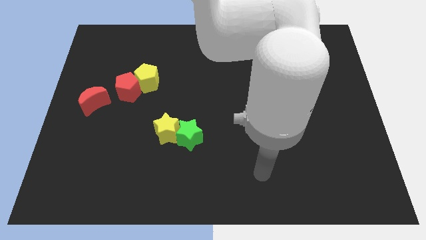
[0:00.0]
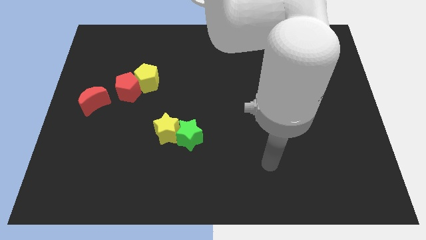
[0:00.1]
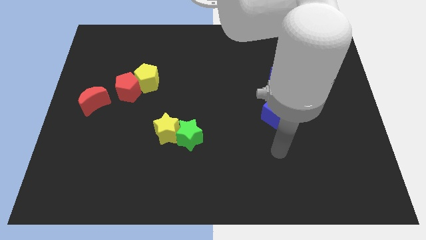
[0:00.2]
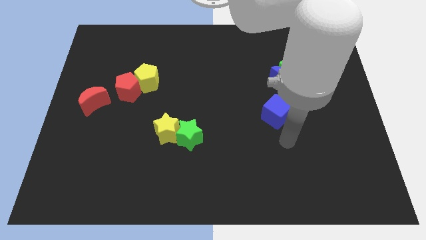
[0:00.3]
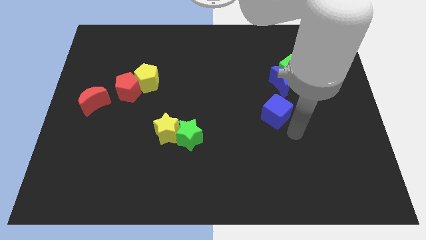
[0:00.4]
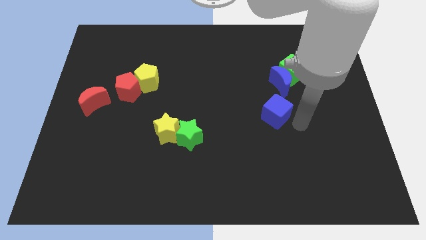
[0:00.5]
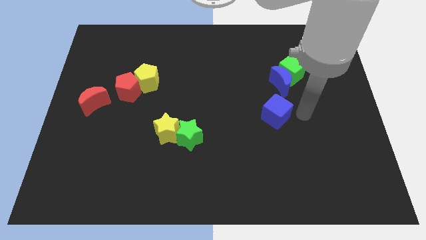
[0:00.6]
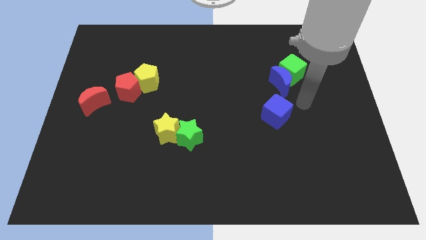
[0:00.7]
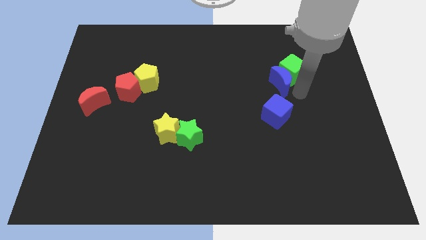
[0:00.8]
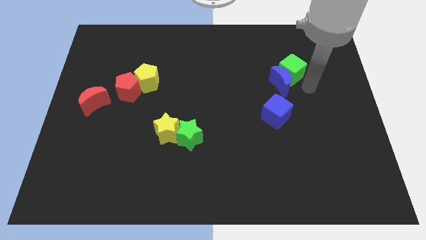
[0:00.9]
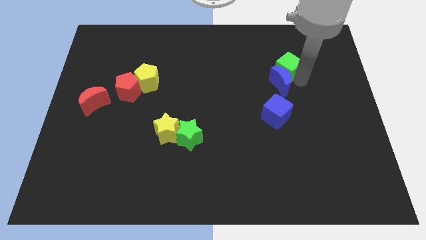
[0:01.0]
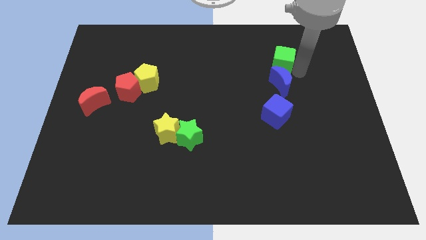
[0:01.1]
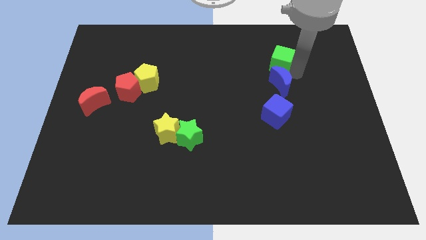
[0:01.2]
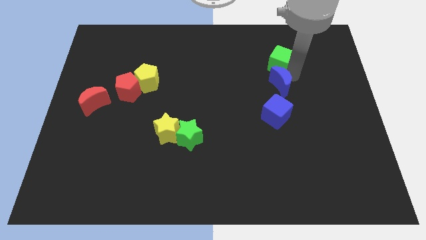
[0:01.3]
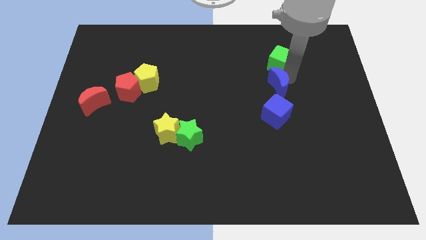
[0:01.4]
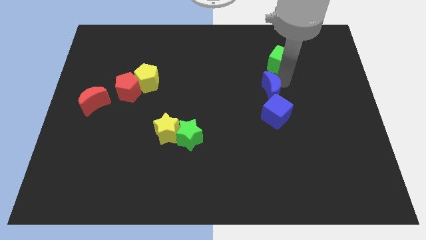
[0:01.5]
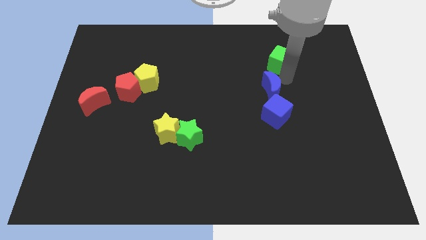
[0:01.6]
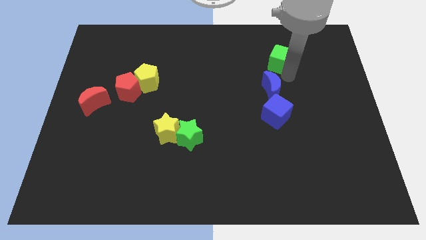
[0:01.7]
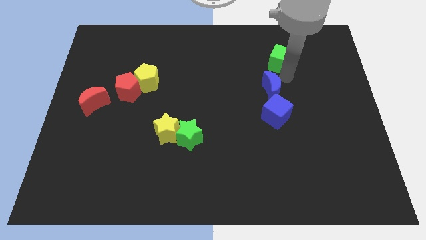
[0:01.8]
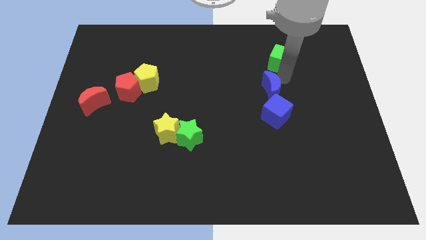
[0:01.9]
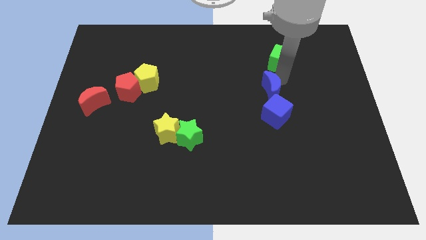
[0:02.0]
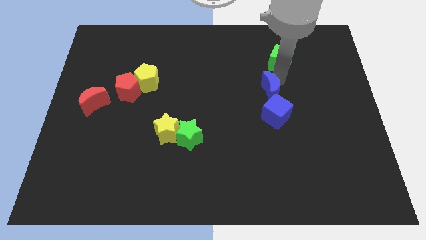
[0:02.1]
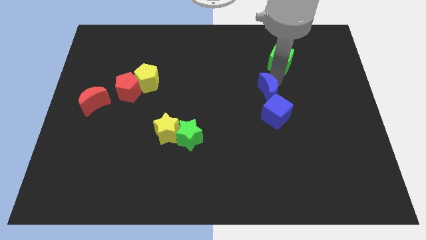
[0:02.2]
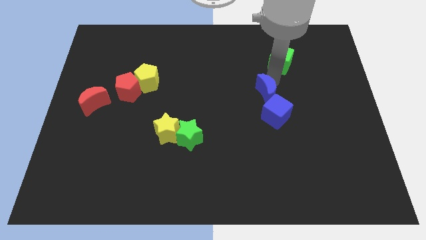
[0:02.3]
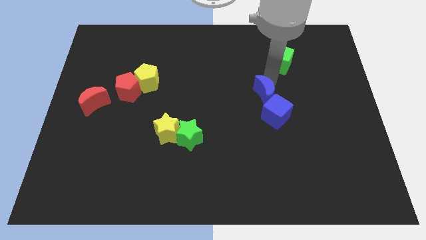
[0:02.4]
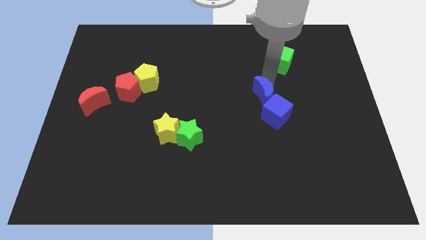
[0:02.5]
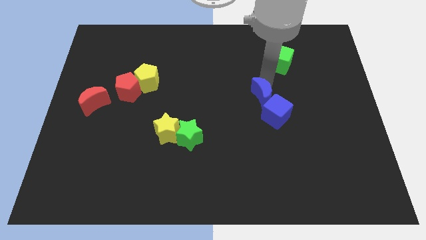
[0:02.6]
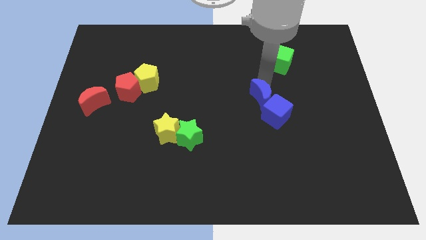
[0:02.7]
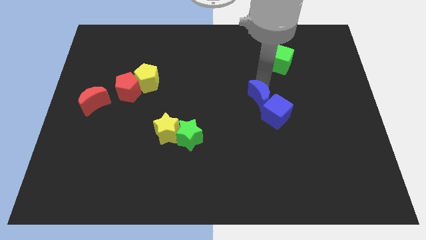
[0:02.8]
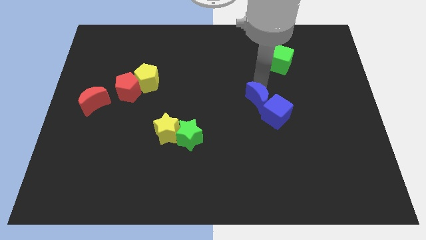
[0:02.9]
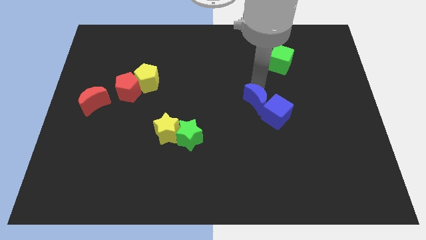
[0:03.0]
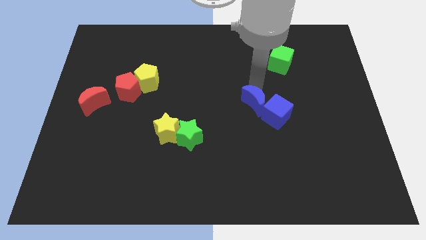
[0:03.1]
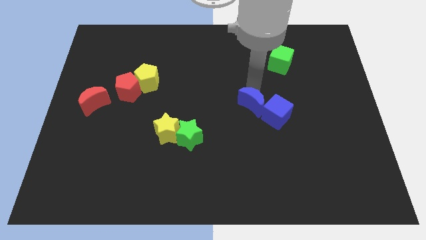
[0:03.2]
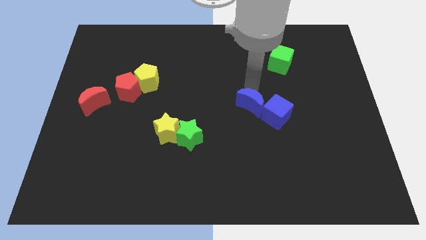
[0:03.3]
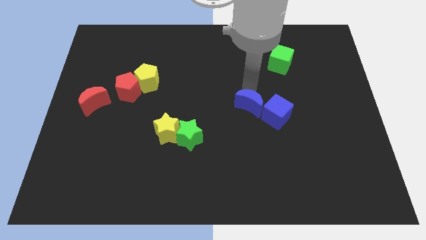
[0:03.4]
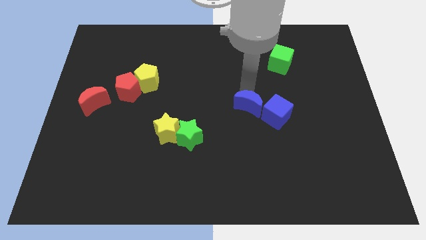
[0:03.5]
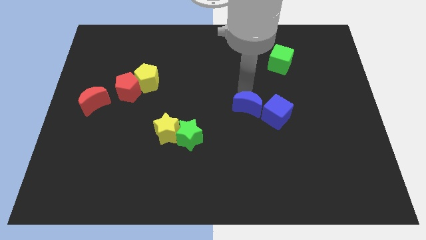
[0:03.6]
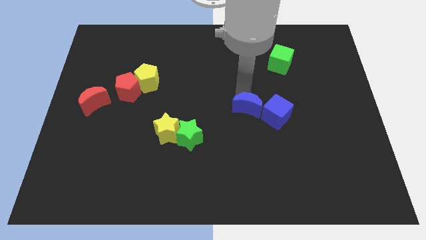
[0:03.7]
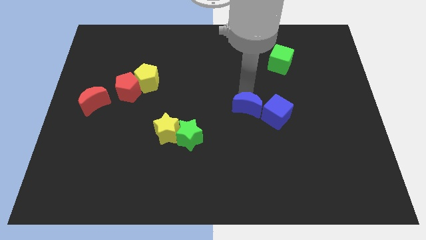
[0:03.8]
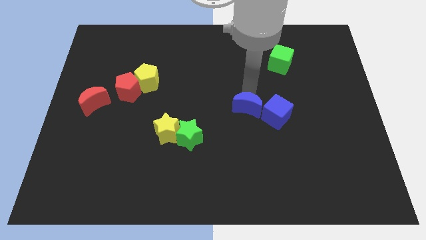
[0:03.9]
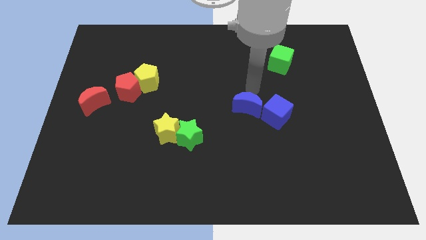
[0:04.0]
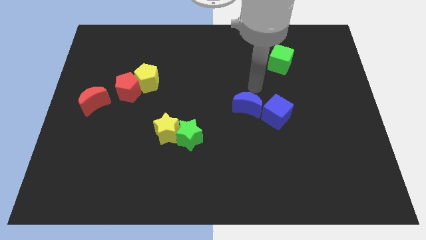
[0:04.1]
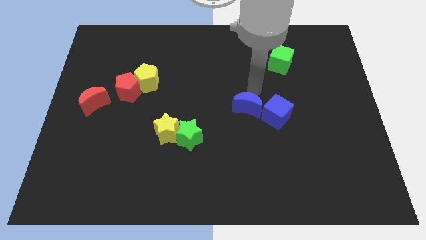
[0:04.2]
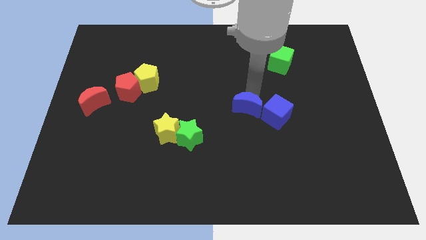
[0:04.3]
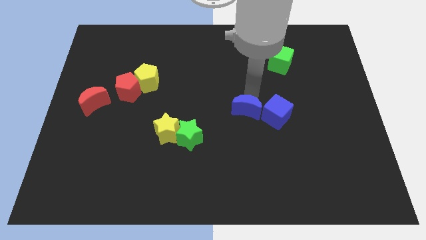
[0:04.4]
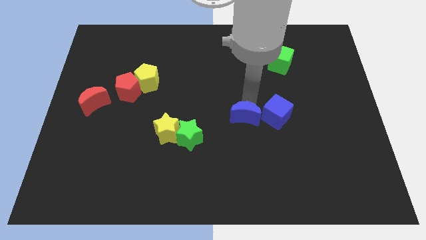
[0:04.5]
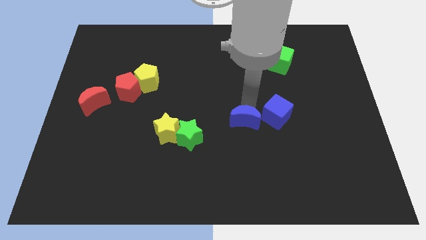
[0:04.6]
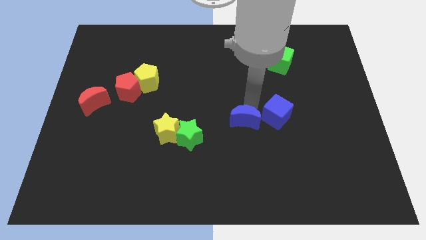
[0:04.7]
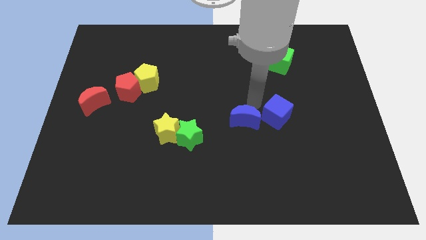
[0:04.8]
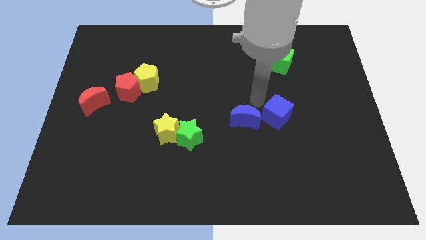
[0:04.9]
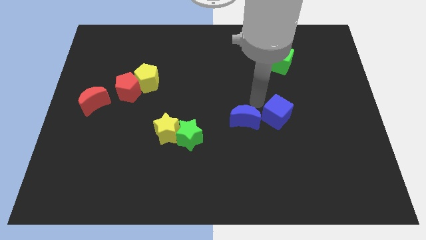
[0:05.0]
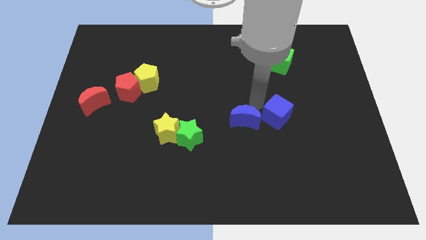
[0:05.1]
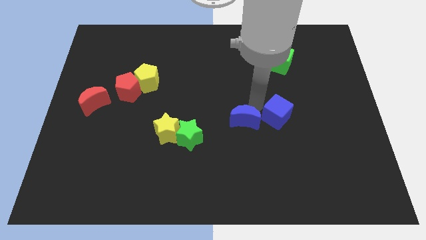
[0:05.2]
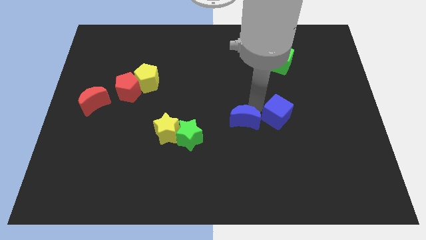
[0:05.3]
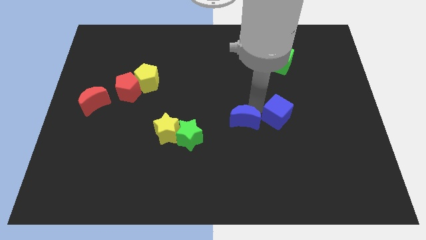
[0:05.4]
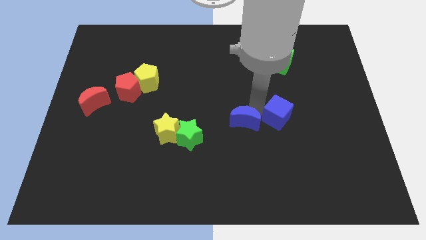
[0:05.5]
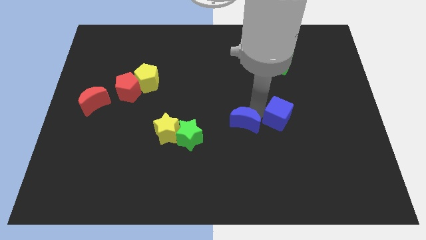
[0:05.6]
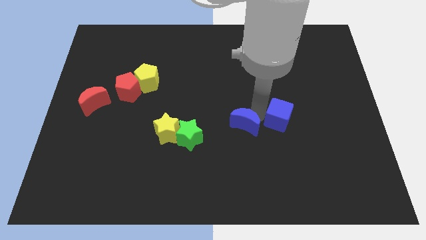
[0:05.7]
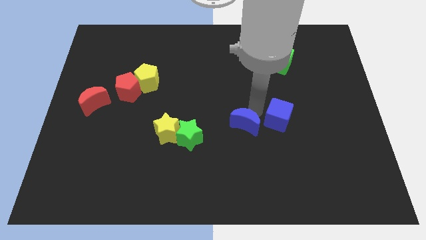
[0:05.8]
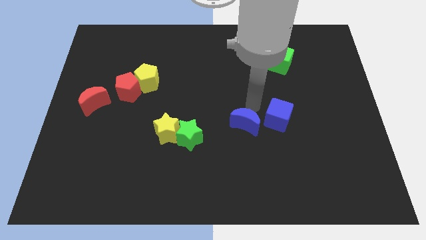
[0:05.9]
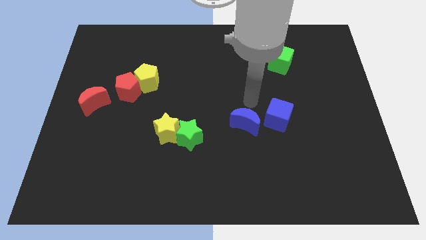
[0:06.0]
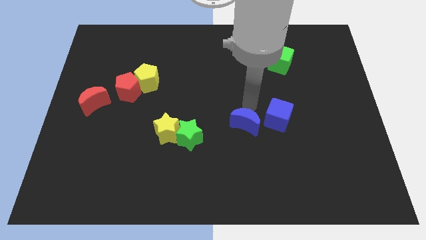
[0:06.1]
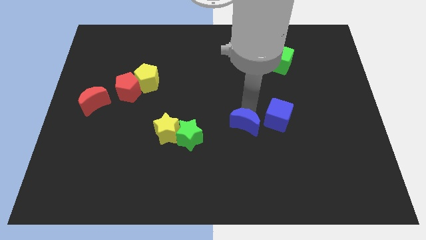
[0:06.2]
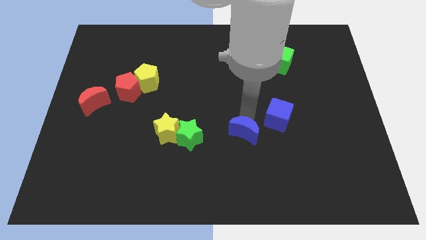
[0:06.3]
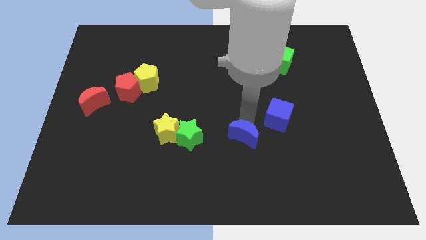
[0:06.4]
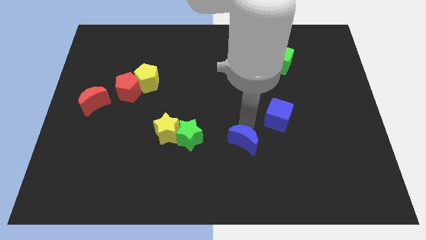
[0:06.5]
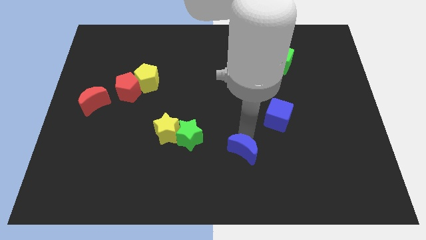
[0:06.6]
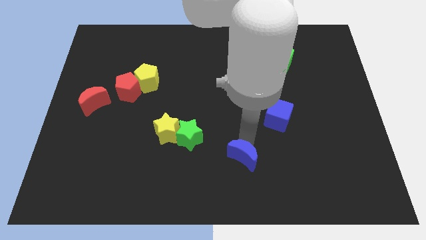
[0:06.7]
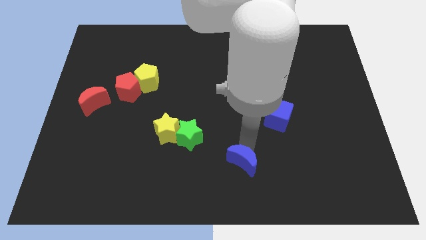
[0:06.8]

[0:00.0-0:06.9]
push the blue moon to the bottom side
